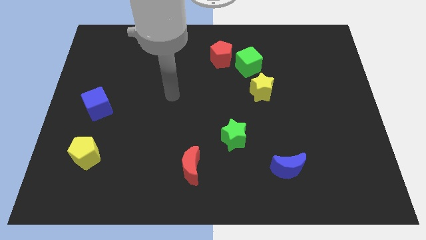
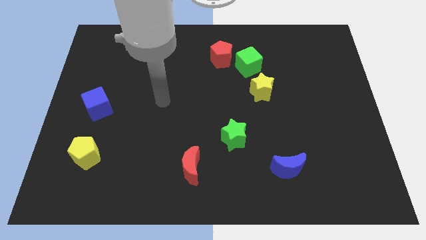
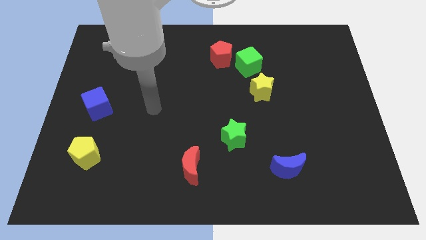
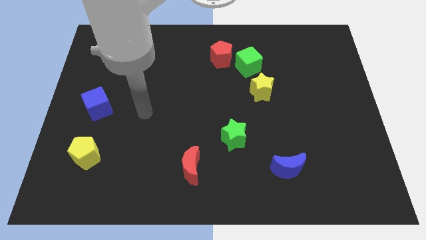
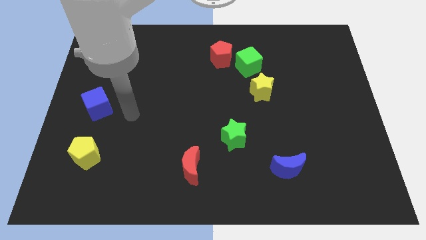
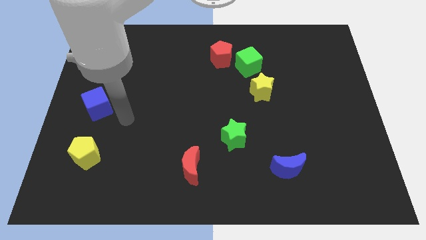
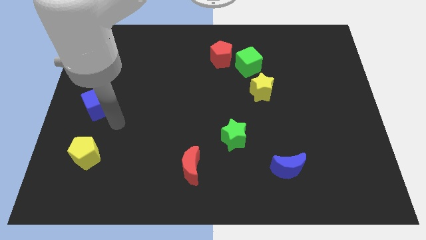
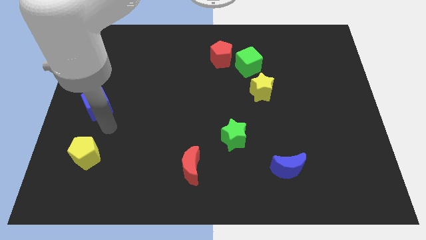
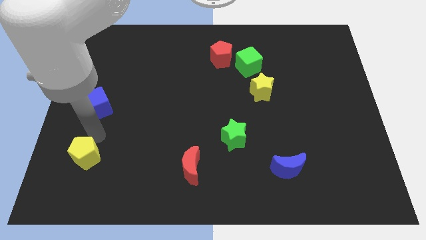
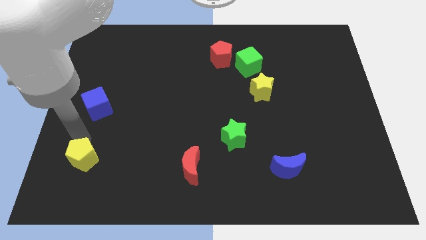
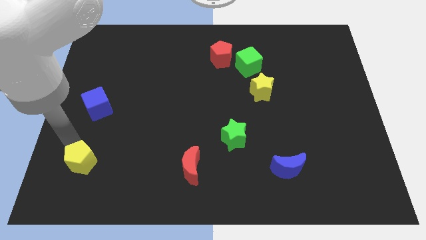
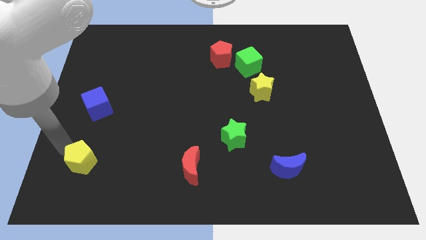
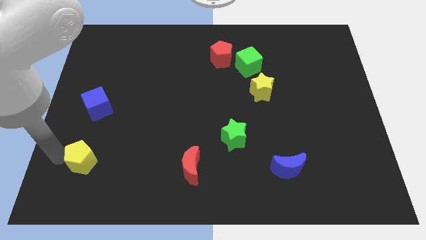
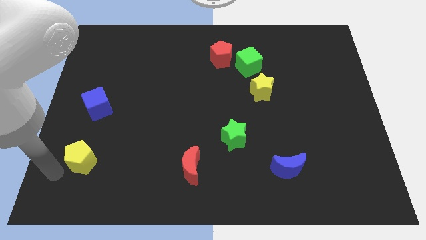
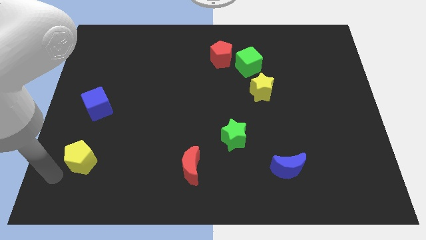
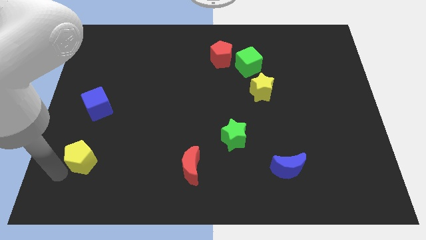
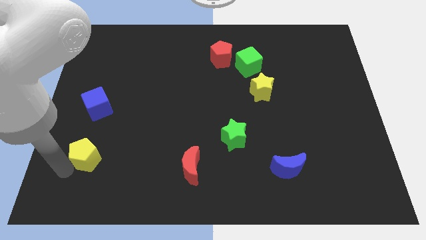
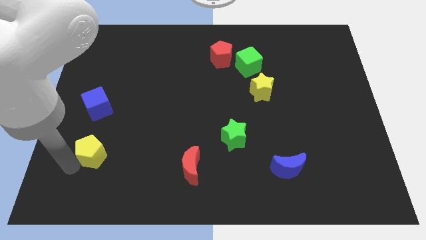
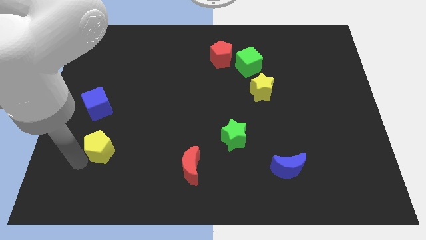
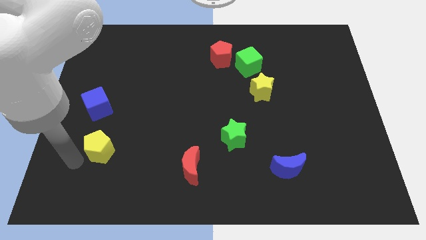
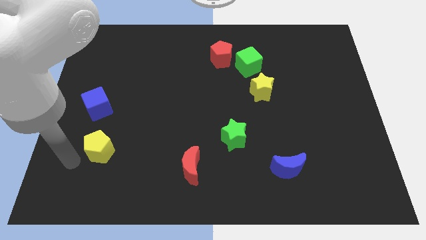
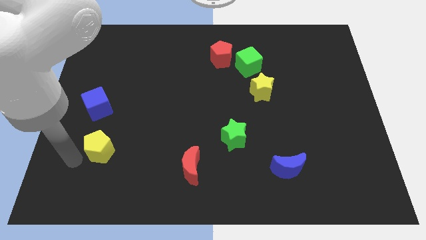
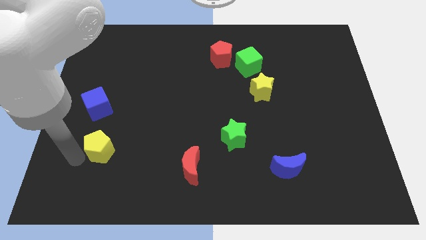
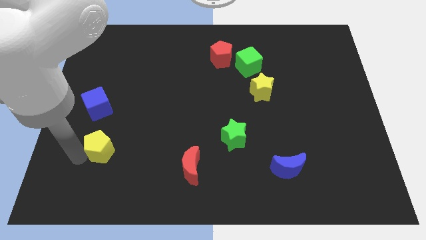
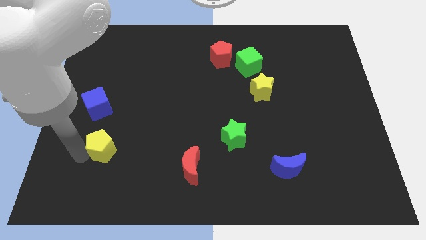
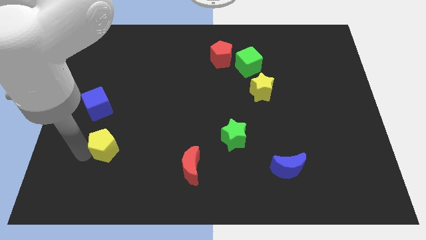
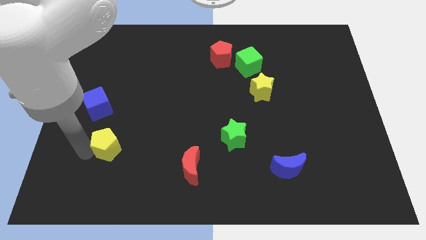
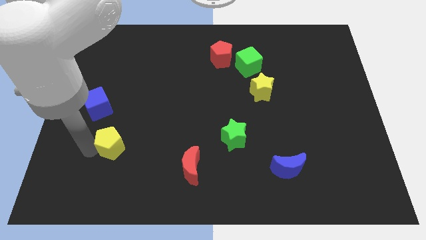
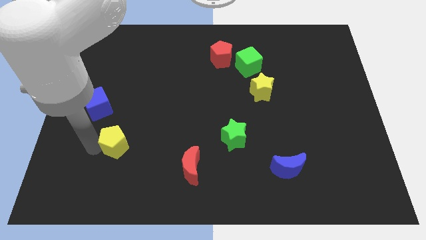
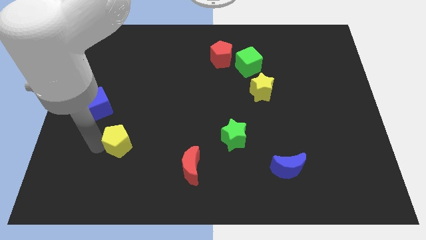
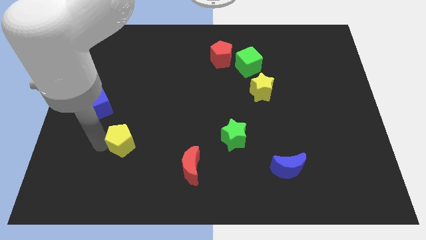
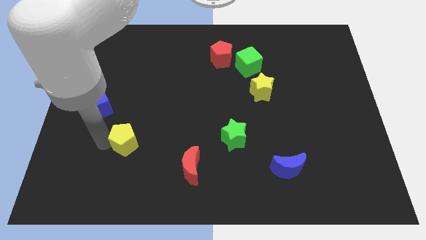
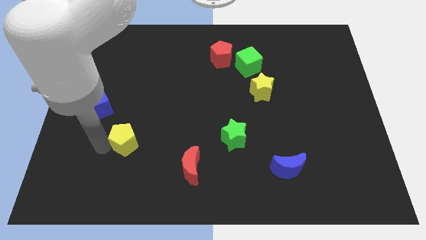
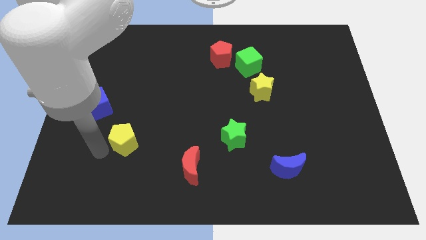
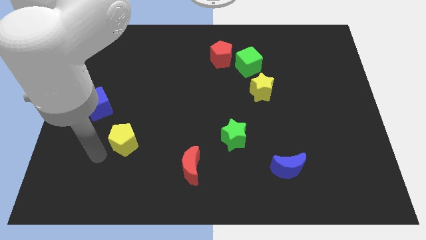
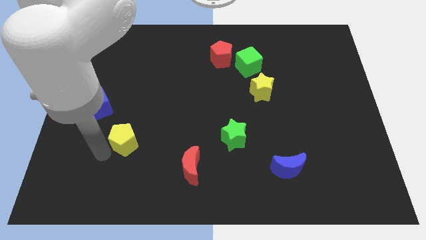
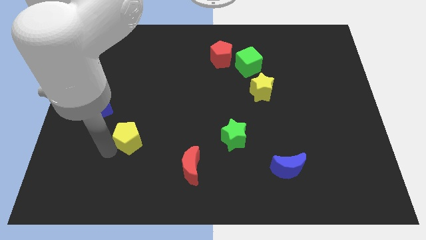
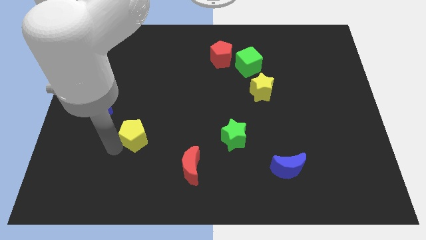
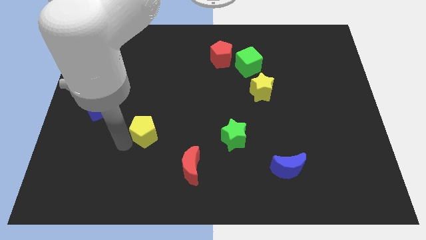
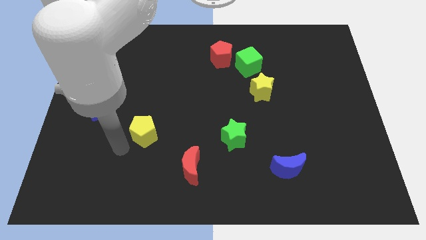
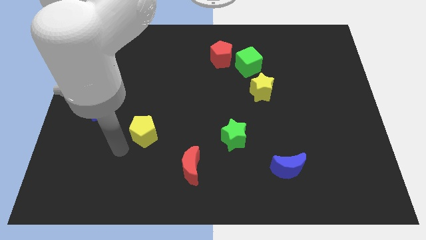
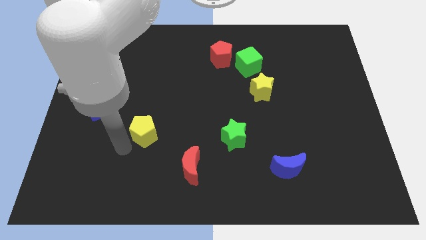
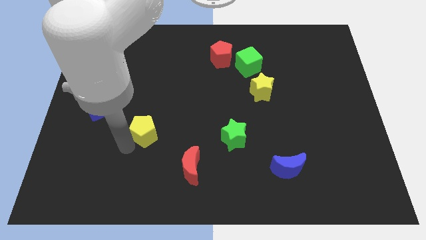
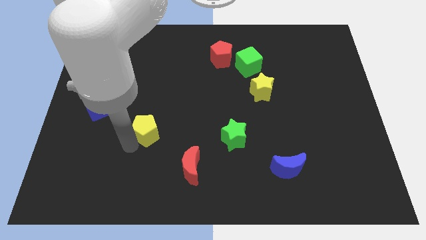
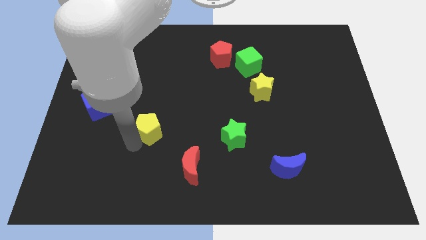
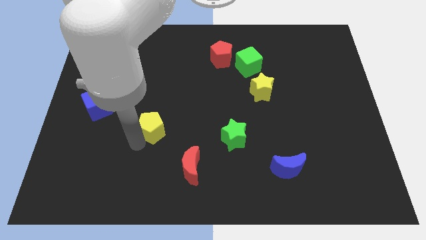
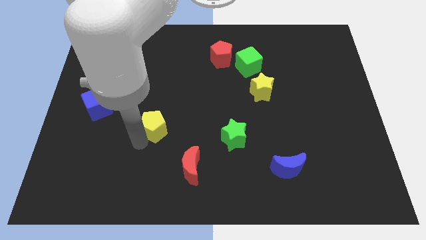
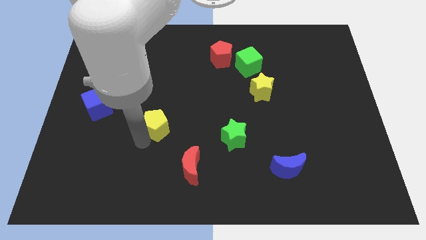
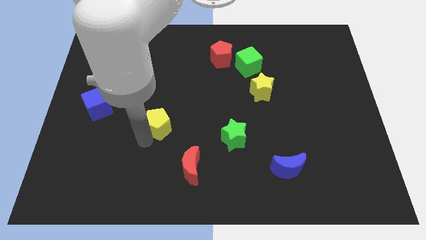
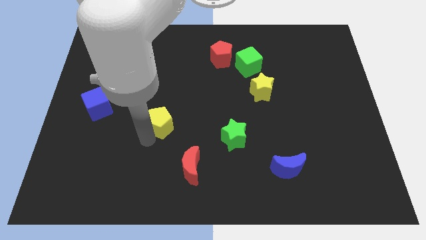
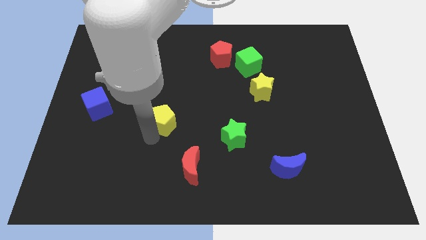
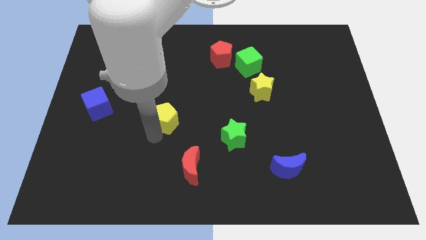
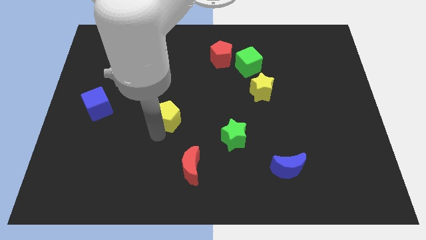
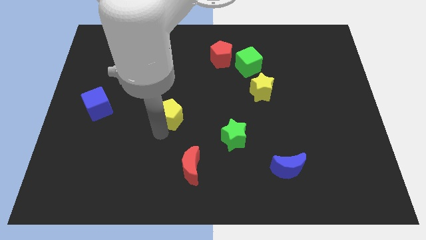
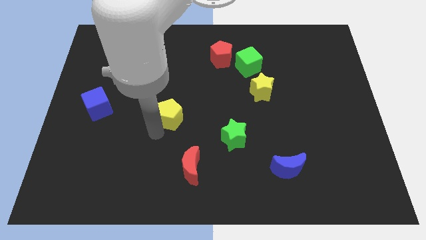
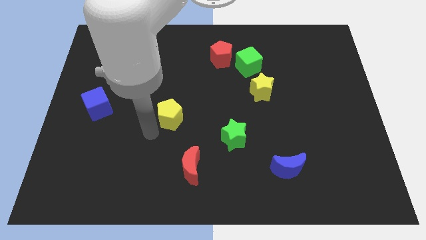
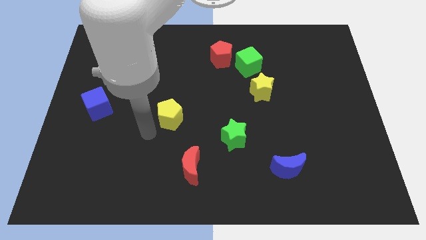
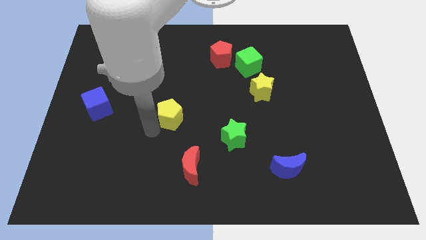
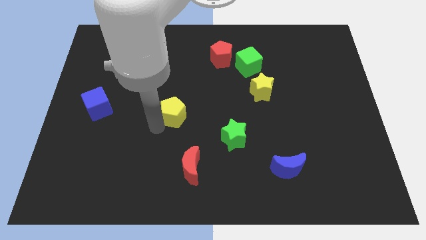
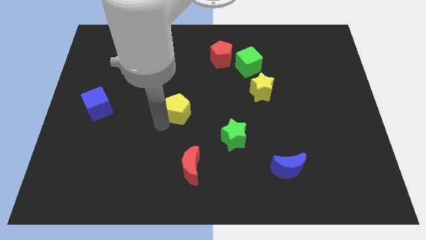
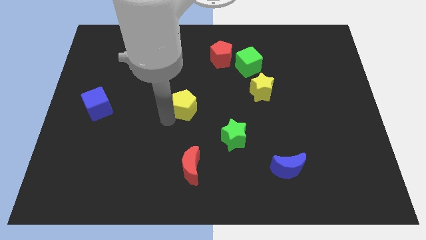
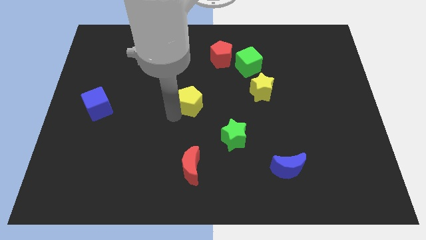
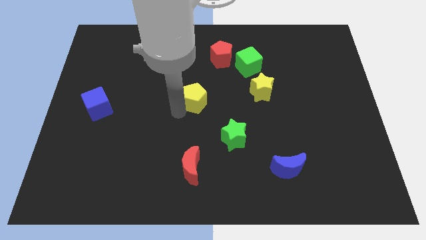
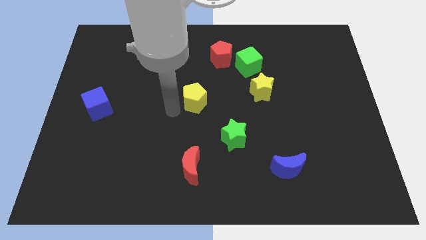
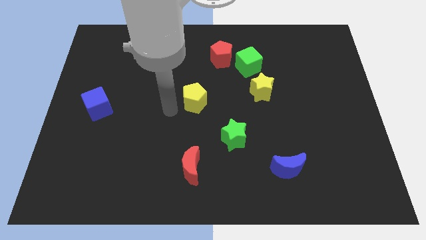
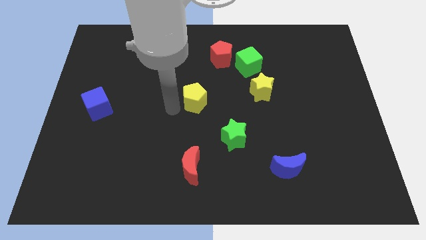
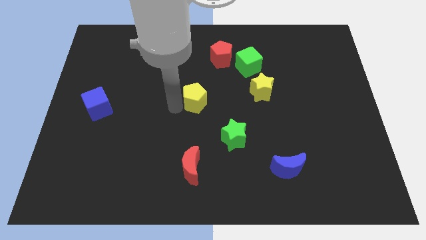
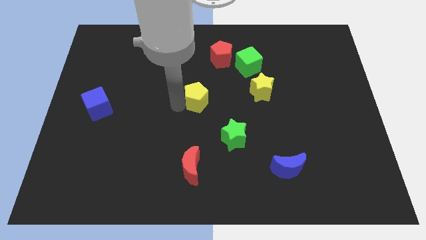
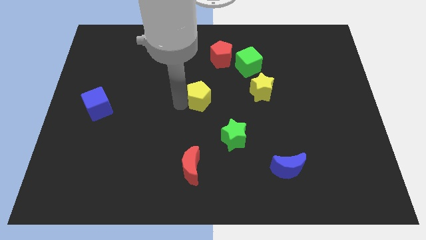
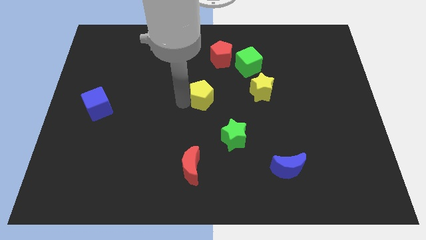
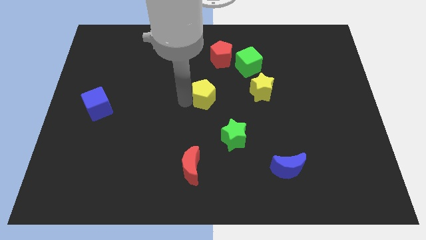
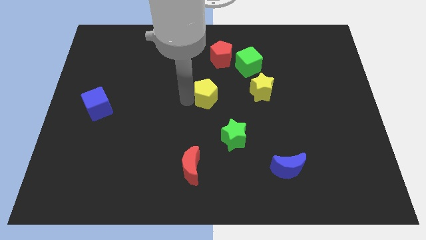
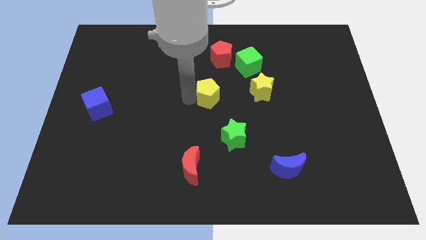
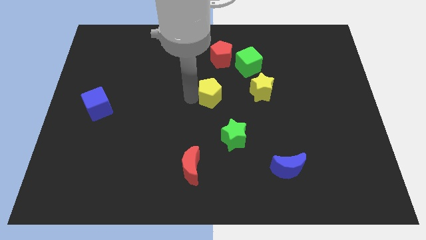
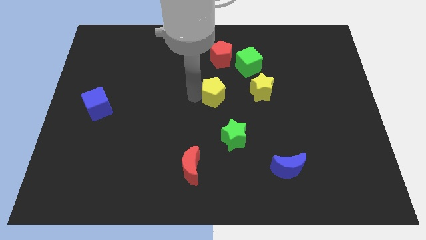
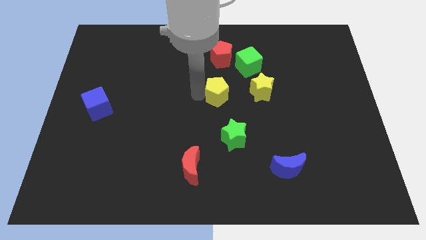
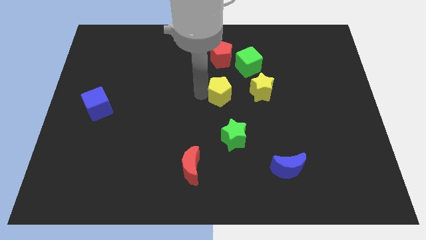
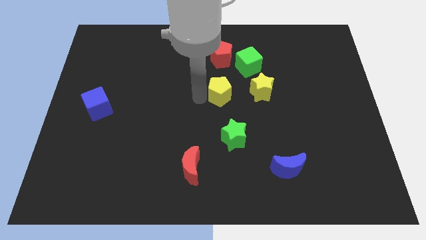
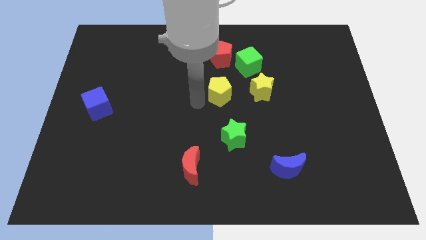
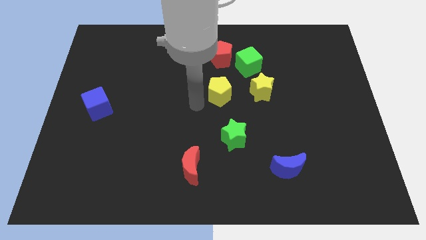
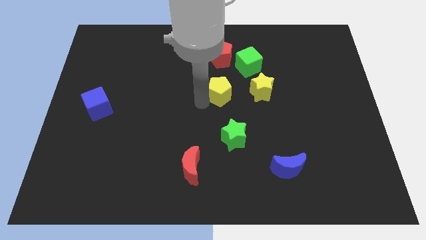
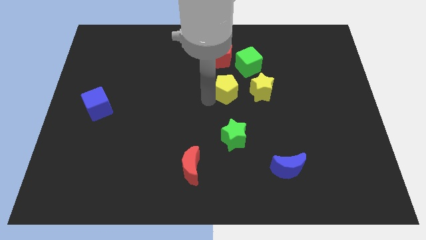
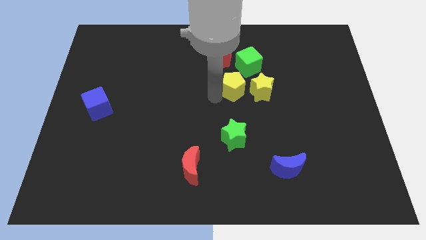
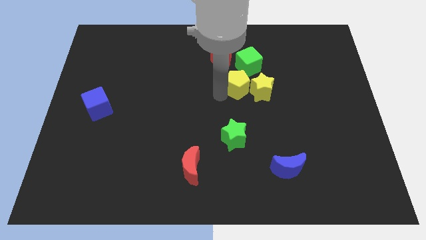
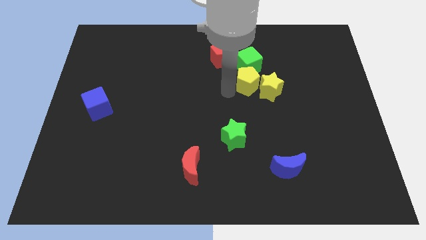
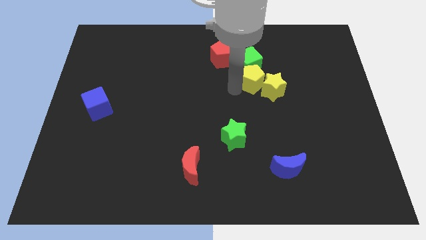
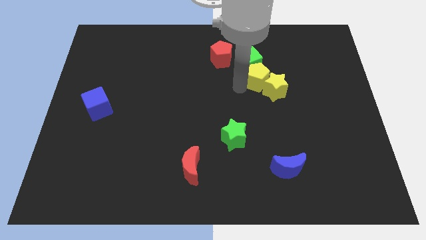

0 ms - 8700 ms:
push the yellow pentagon above the yellow star
